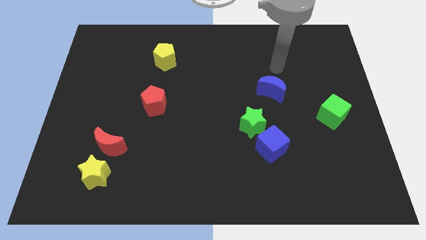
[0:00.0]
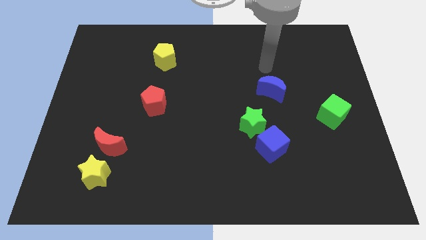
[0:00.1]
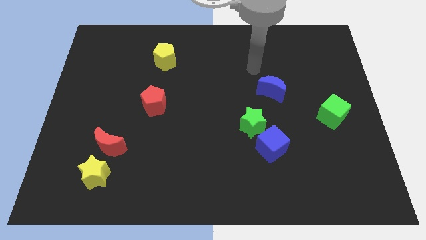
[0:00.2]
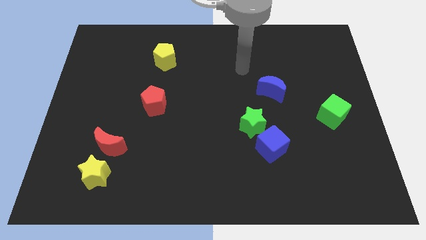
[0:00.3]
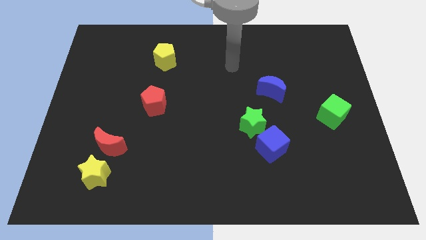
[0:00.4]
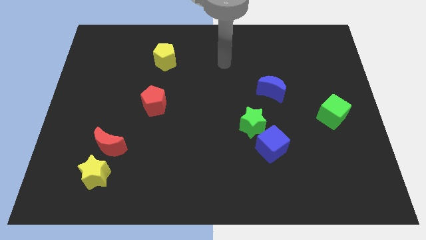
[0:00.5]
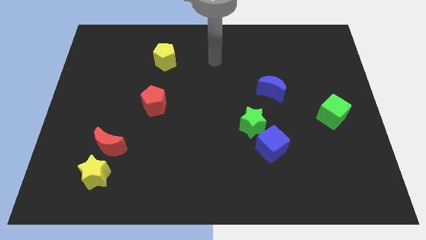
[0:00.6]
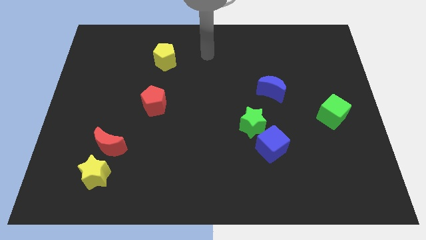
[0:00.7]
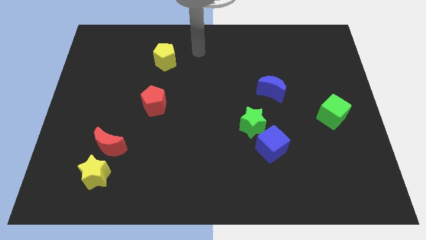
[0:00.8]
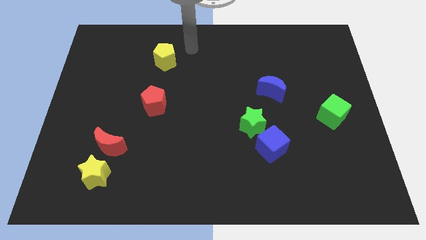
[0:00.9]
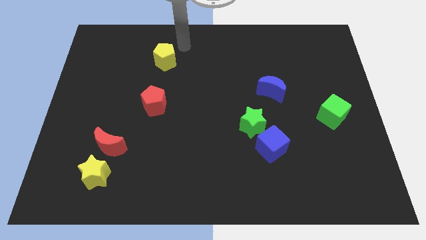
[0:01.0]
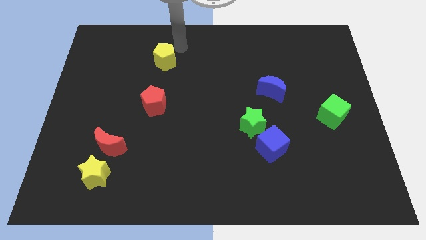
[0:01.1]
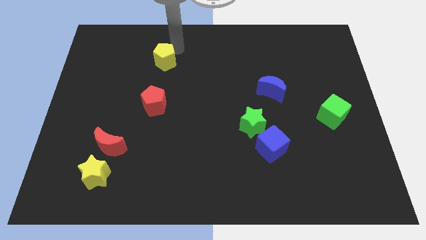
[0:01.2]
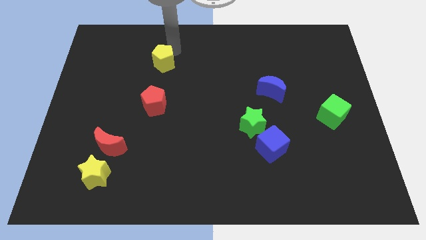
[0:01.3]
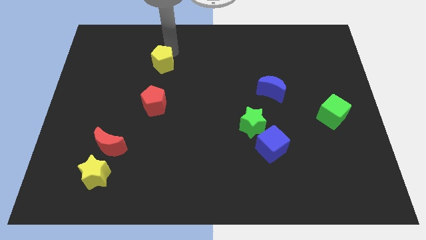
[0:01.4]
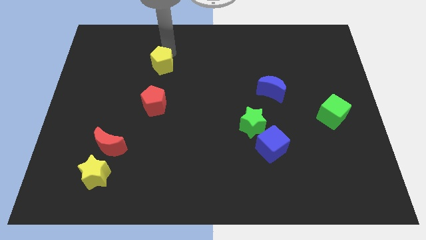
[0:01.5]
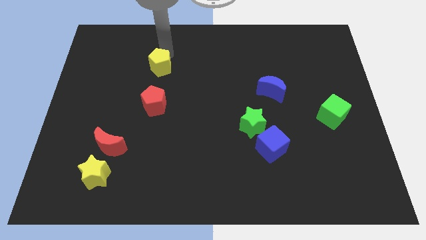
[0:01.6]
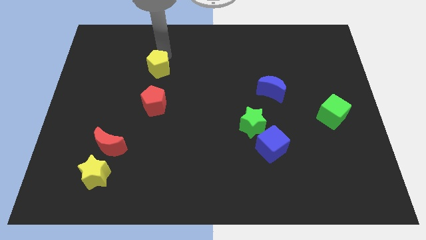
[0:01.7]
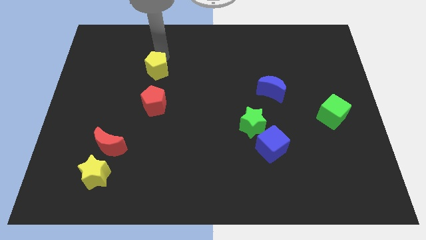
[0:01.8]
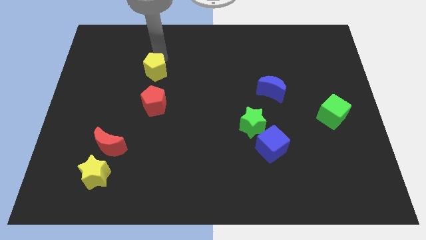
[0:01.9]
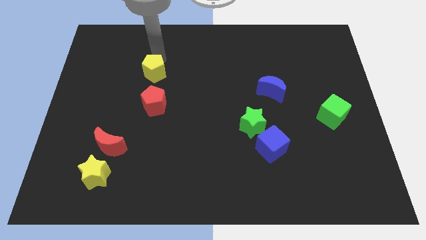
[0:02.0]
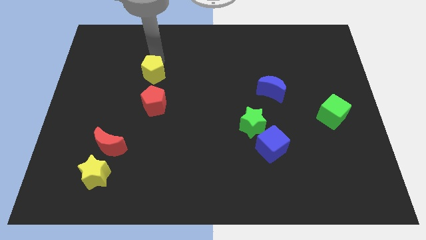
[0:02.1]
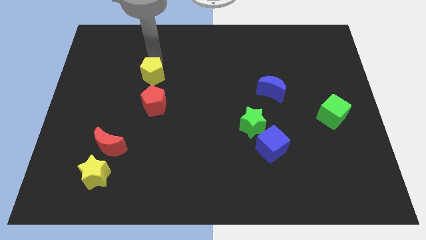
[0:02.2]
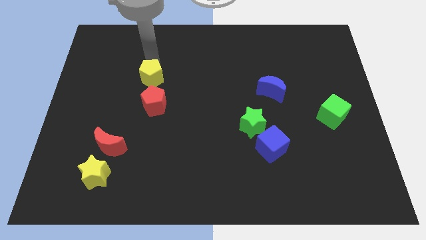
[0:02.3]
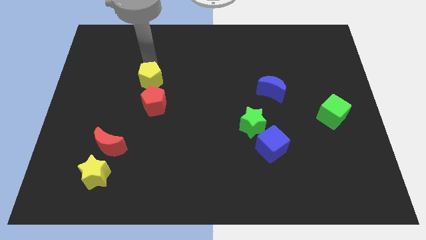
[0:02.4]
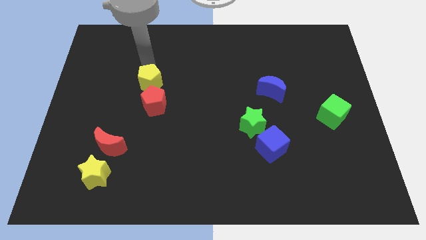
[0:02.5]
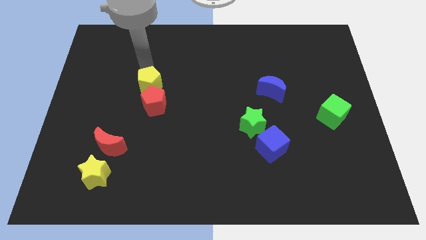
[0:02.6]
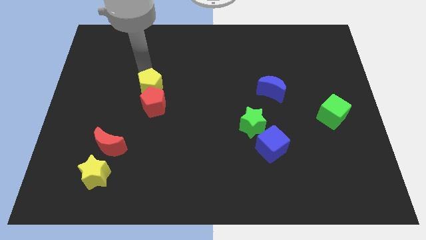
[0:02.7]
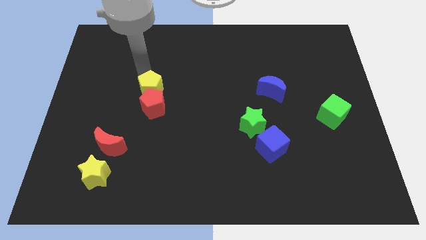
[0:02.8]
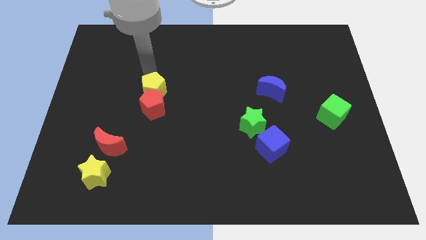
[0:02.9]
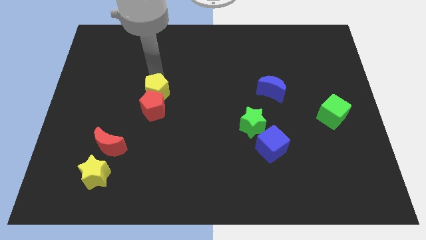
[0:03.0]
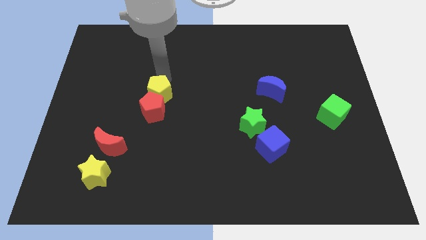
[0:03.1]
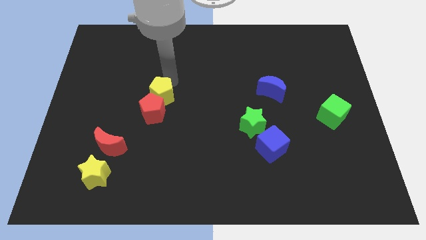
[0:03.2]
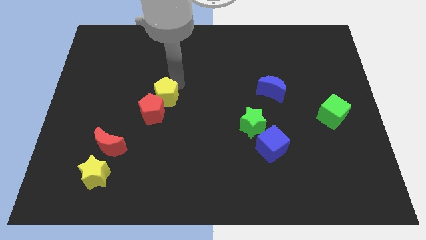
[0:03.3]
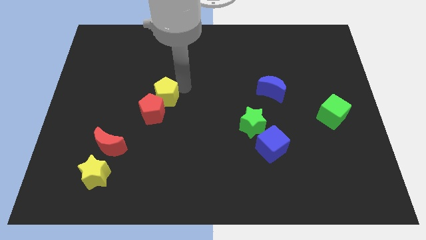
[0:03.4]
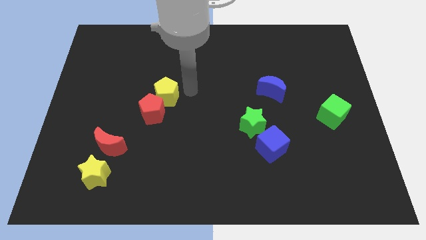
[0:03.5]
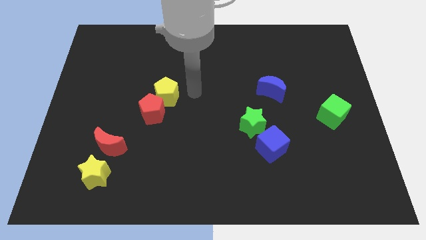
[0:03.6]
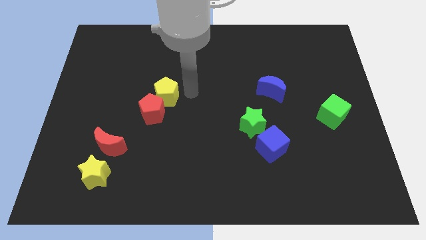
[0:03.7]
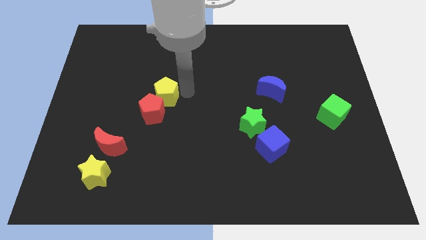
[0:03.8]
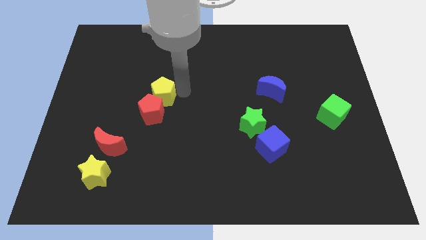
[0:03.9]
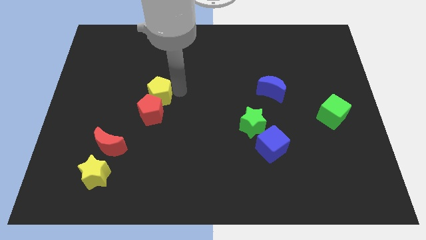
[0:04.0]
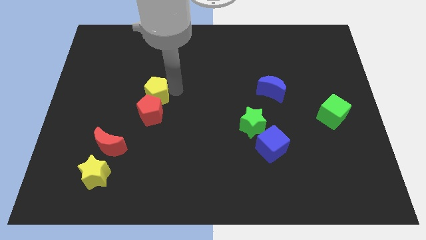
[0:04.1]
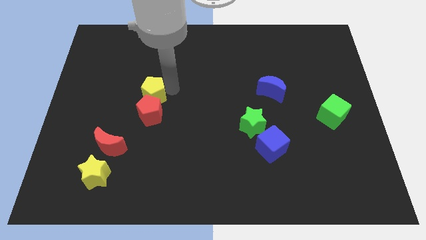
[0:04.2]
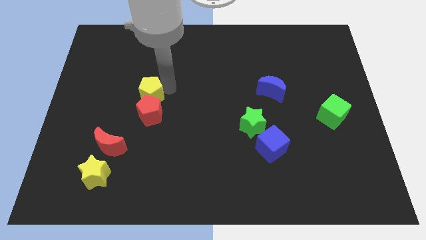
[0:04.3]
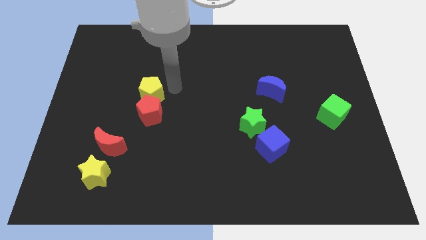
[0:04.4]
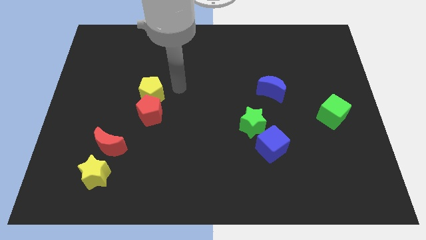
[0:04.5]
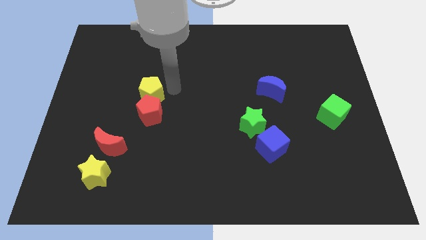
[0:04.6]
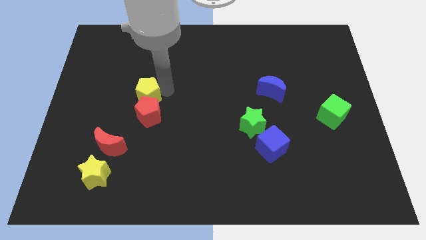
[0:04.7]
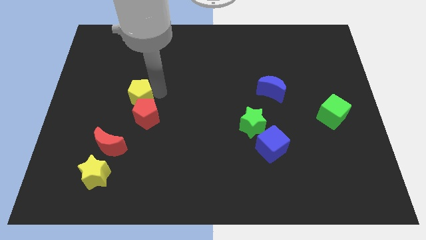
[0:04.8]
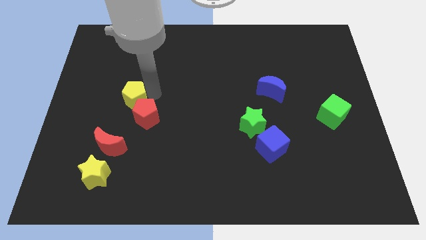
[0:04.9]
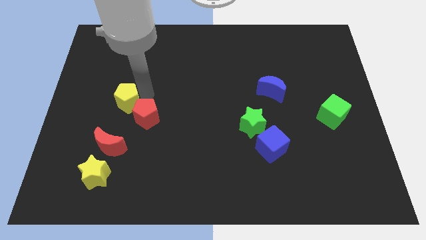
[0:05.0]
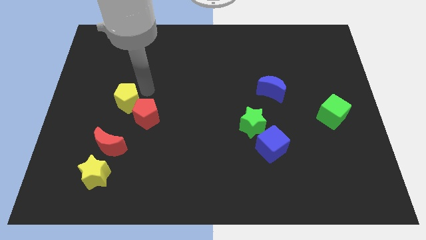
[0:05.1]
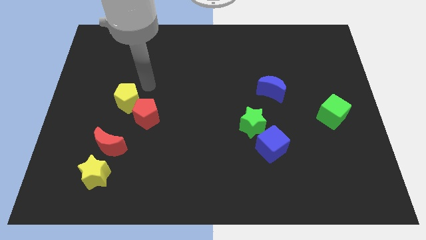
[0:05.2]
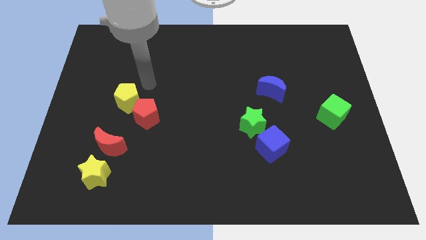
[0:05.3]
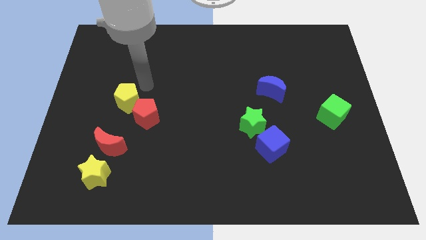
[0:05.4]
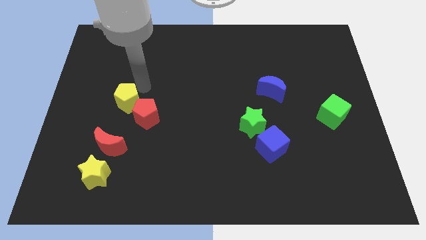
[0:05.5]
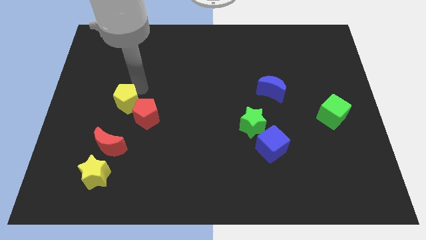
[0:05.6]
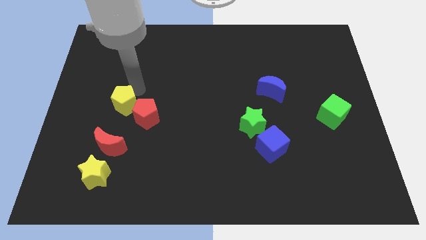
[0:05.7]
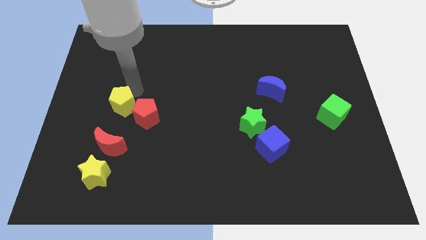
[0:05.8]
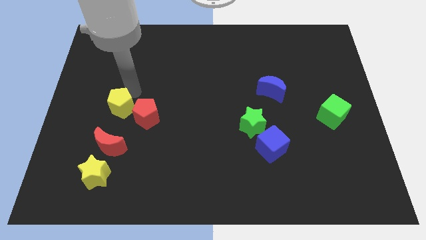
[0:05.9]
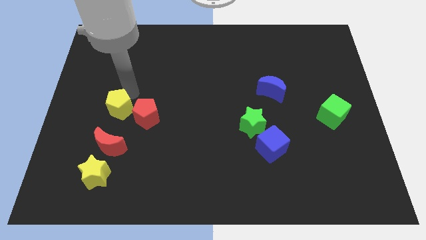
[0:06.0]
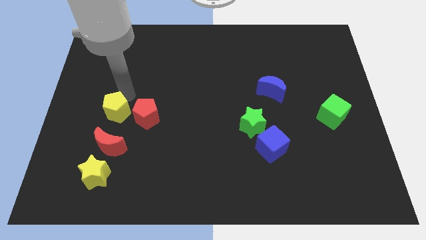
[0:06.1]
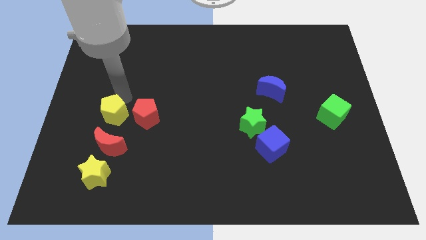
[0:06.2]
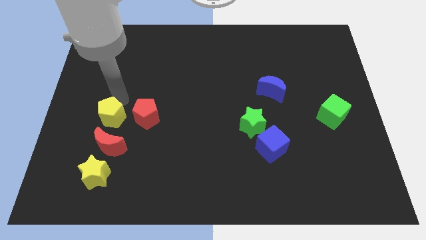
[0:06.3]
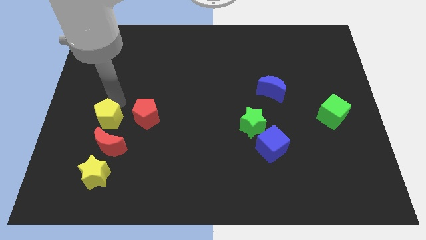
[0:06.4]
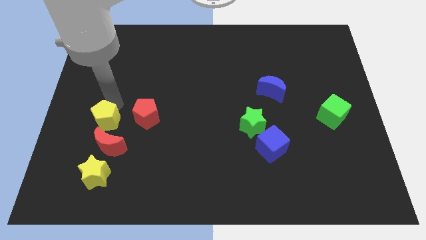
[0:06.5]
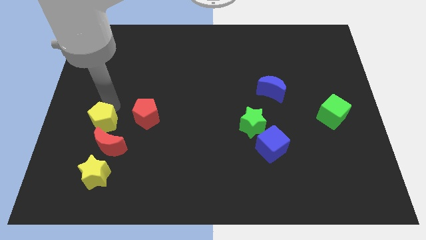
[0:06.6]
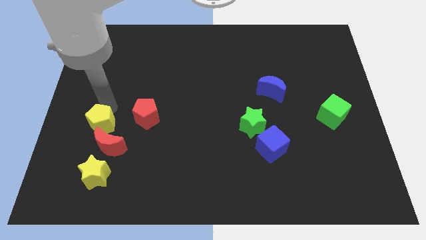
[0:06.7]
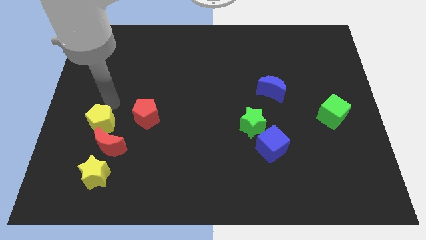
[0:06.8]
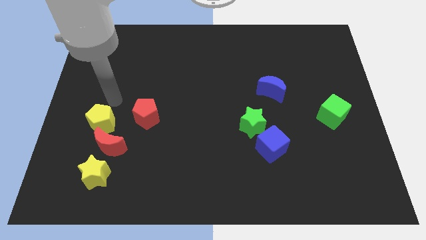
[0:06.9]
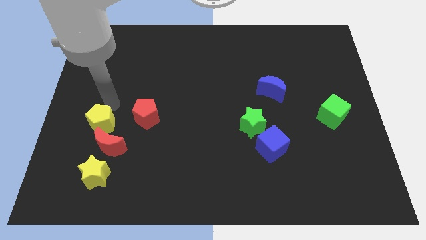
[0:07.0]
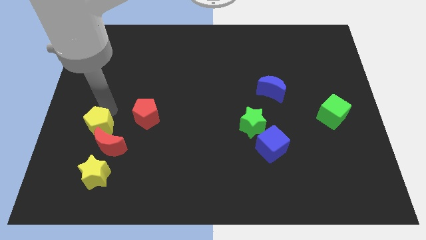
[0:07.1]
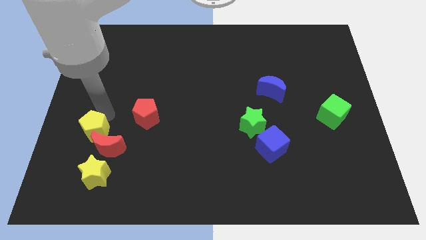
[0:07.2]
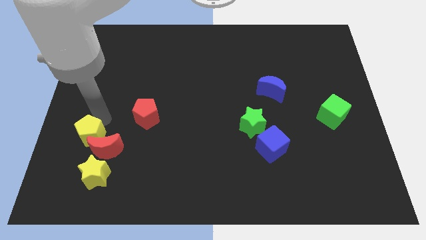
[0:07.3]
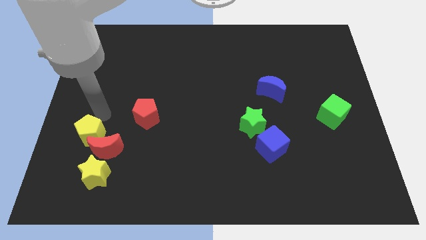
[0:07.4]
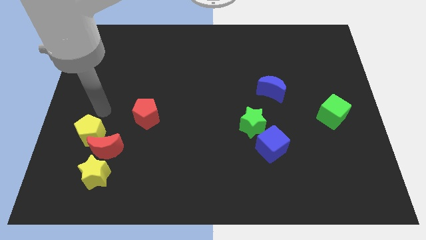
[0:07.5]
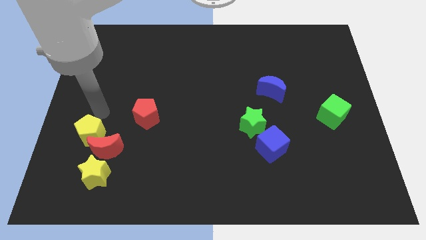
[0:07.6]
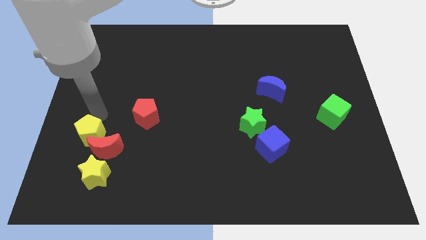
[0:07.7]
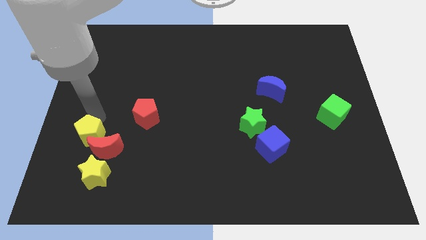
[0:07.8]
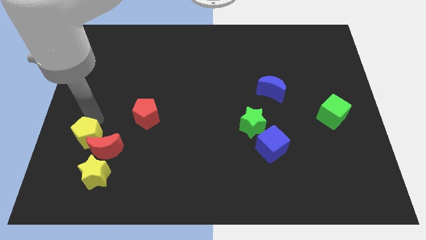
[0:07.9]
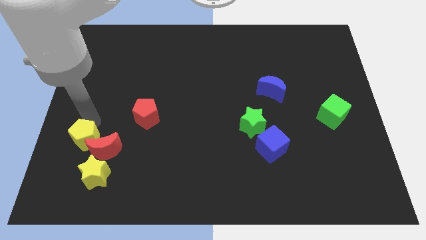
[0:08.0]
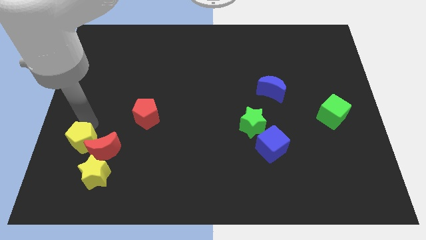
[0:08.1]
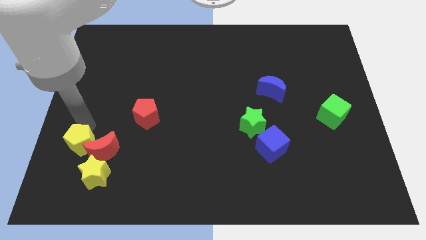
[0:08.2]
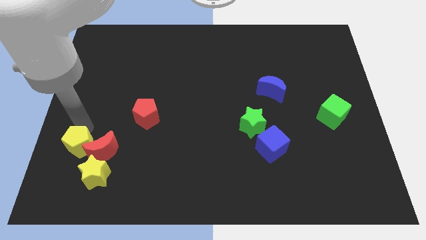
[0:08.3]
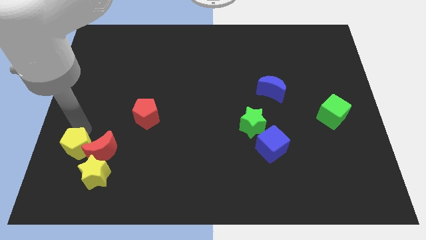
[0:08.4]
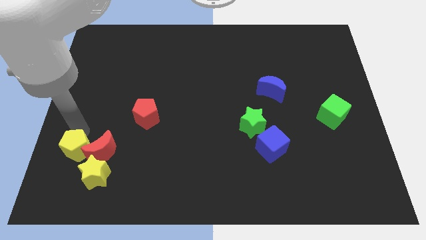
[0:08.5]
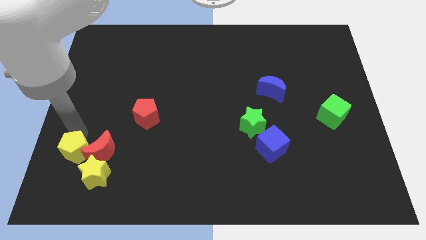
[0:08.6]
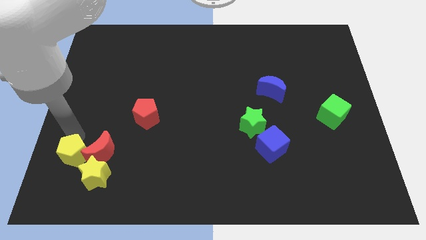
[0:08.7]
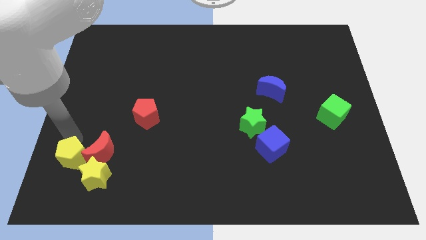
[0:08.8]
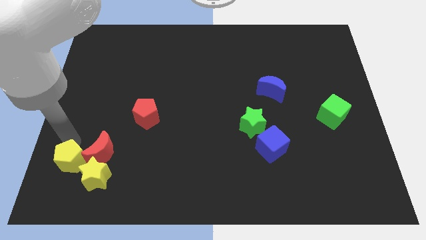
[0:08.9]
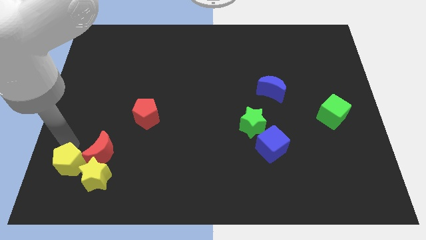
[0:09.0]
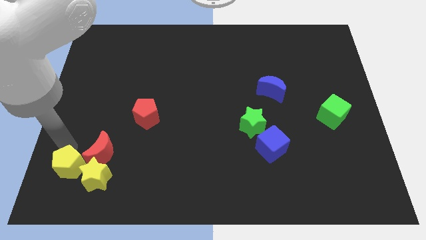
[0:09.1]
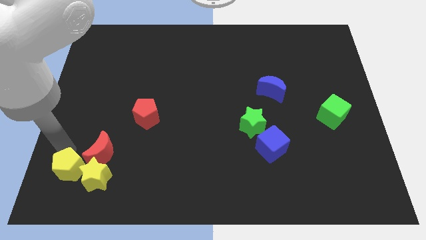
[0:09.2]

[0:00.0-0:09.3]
slide the yellow pentagon to the yellow star
